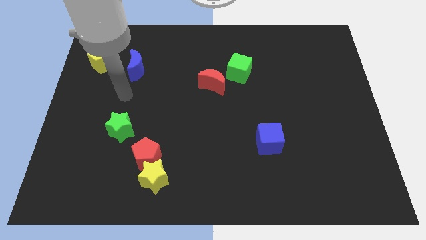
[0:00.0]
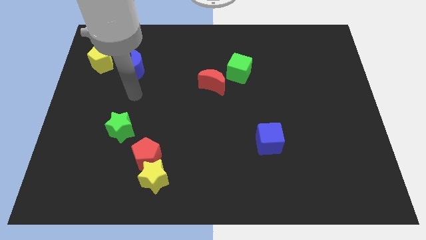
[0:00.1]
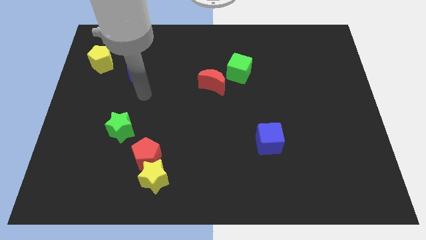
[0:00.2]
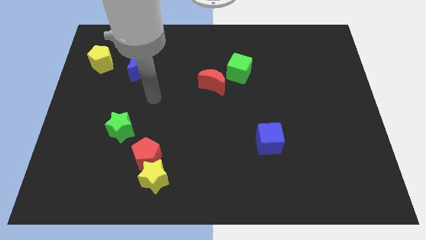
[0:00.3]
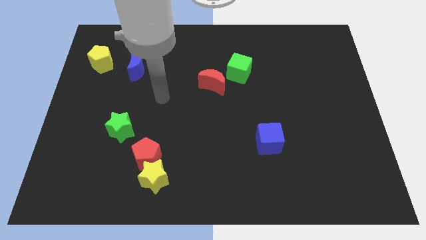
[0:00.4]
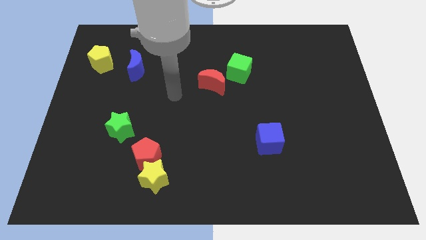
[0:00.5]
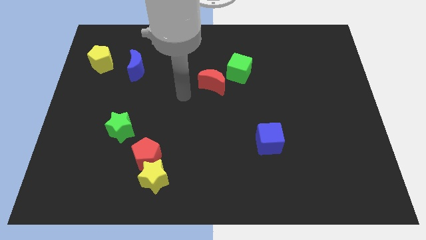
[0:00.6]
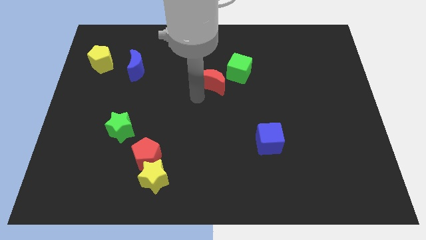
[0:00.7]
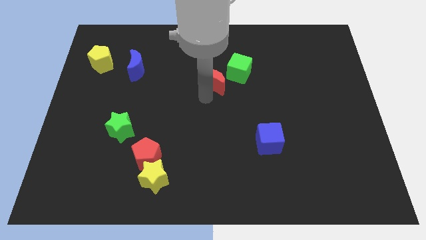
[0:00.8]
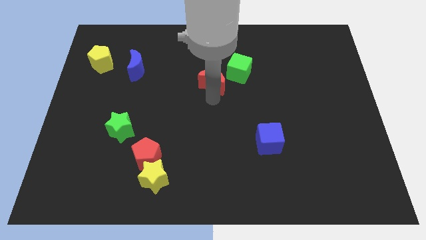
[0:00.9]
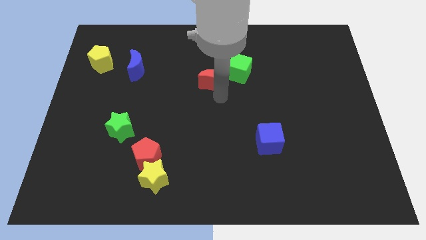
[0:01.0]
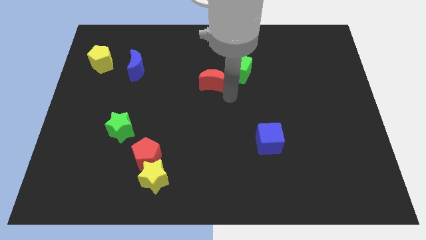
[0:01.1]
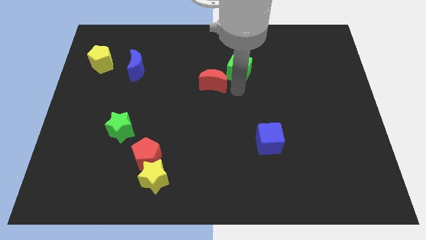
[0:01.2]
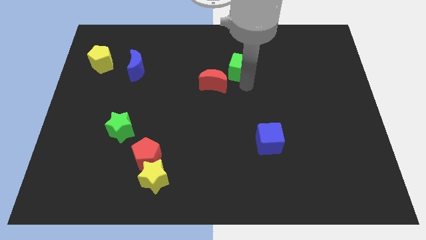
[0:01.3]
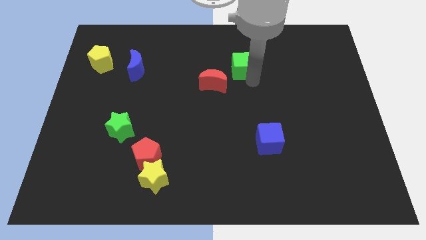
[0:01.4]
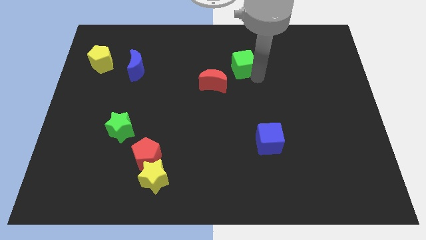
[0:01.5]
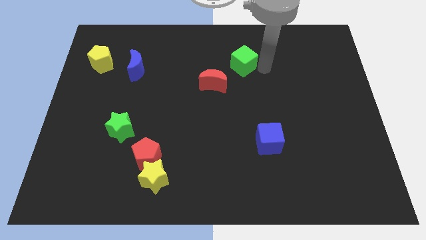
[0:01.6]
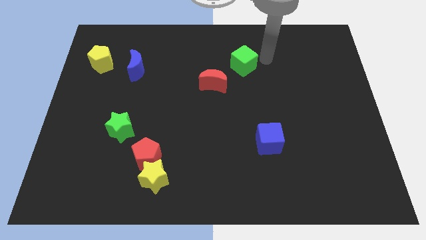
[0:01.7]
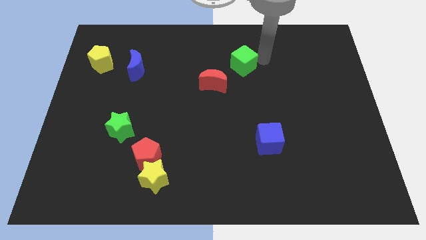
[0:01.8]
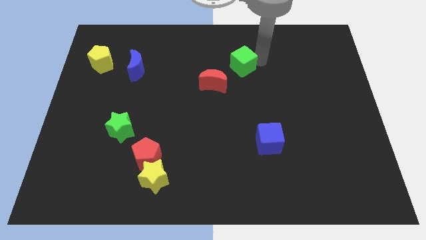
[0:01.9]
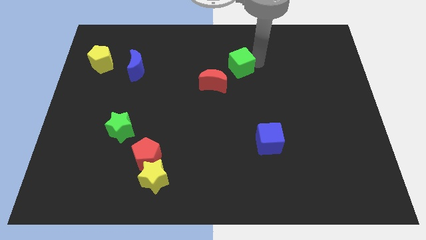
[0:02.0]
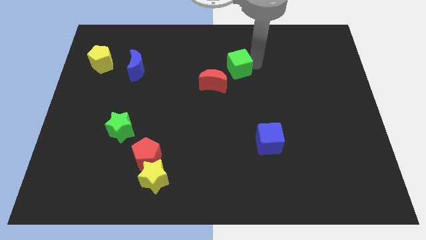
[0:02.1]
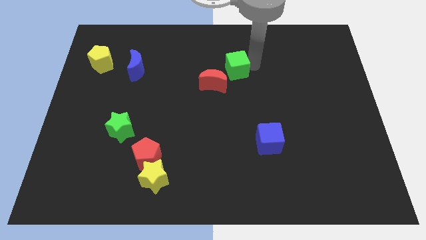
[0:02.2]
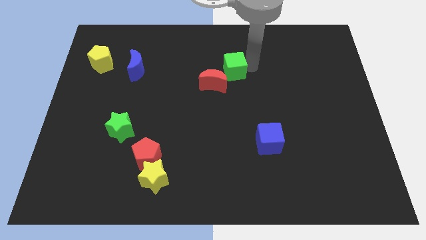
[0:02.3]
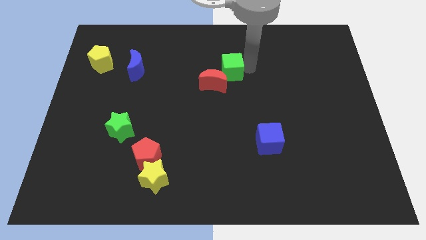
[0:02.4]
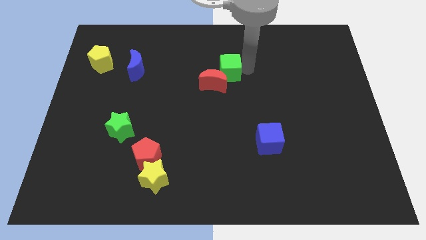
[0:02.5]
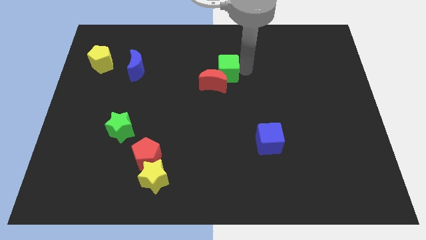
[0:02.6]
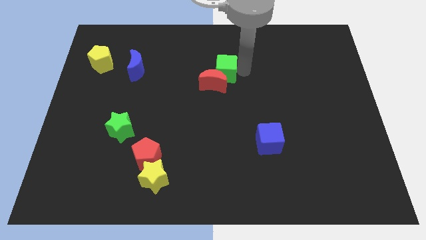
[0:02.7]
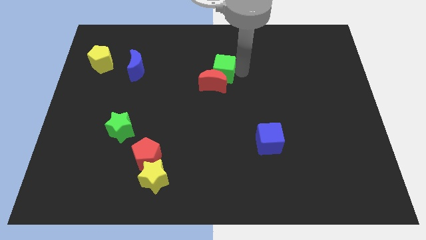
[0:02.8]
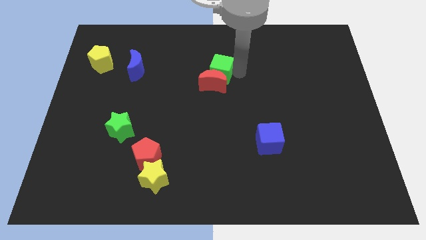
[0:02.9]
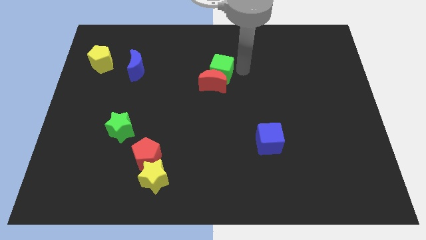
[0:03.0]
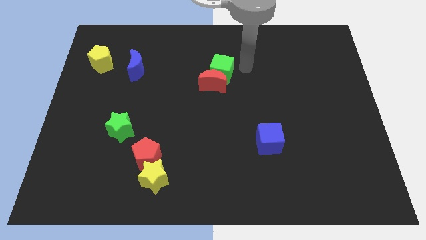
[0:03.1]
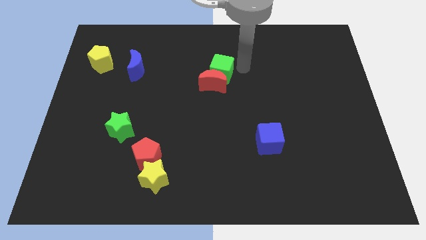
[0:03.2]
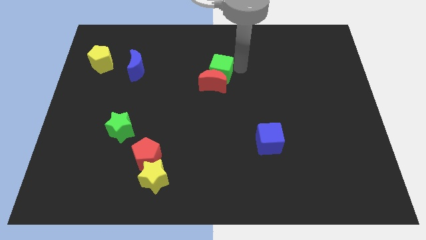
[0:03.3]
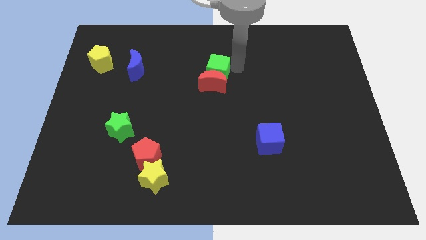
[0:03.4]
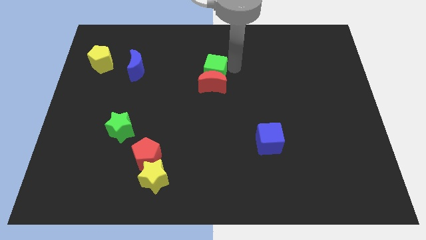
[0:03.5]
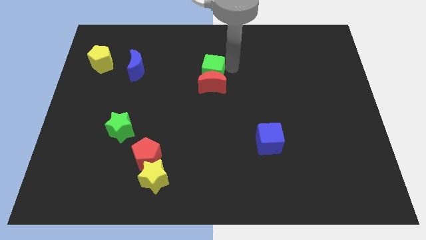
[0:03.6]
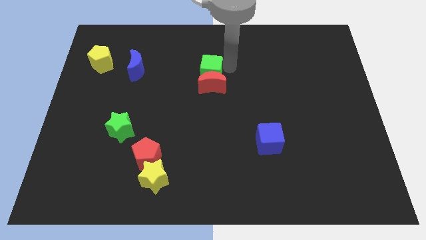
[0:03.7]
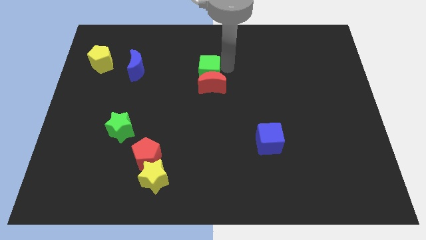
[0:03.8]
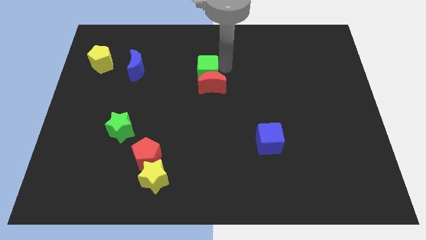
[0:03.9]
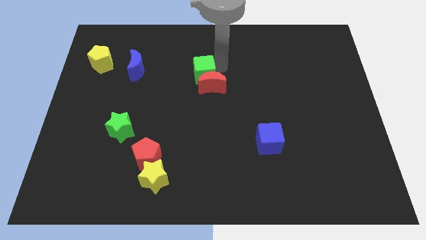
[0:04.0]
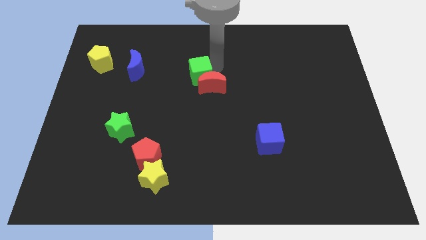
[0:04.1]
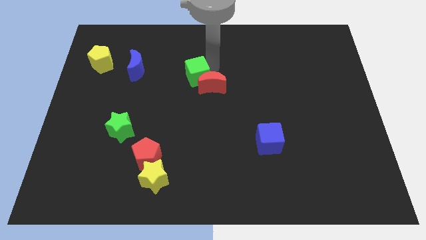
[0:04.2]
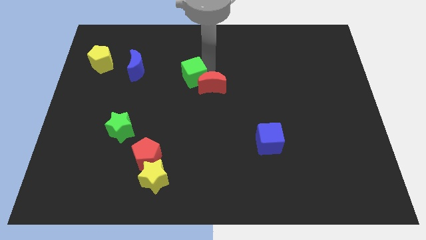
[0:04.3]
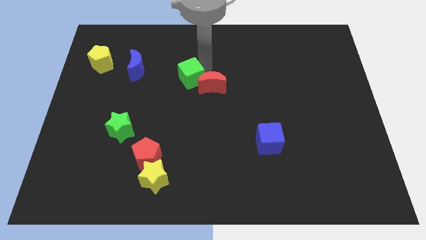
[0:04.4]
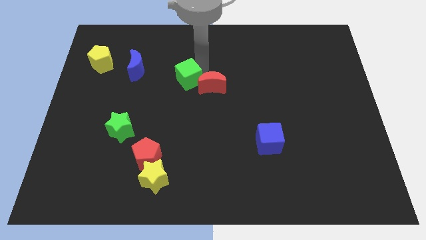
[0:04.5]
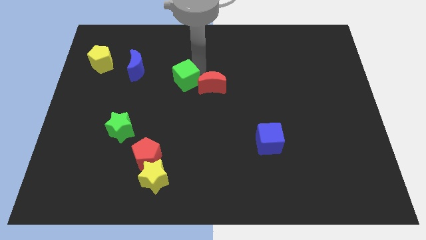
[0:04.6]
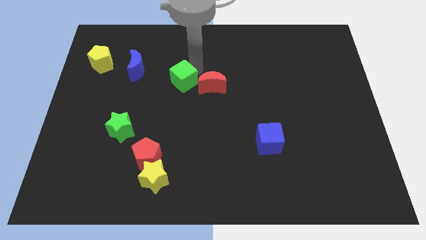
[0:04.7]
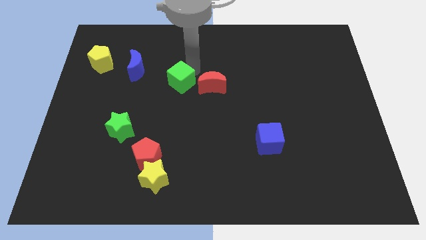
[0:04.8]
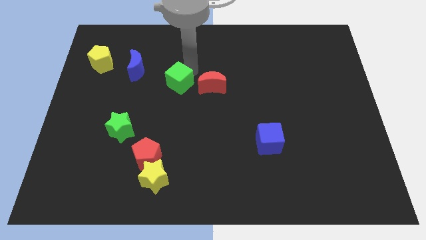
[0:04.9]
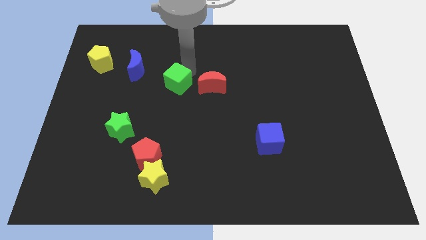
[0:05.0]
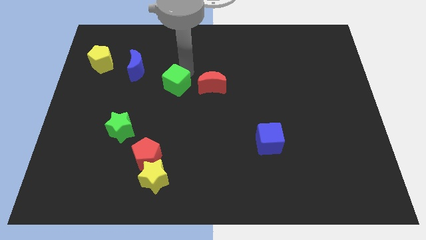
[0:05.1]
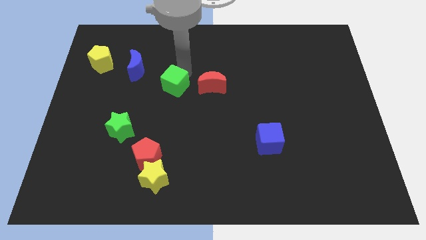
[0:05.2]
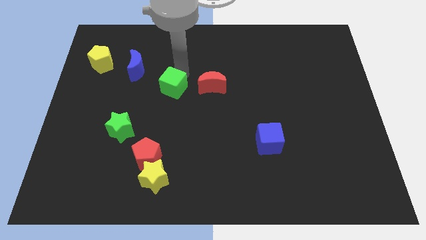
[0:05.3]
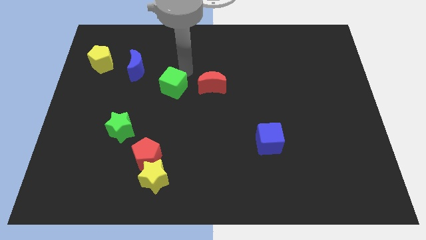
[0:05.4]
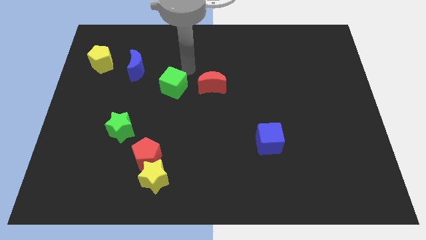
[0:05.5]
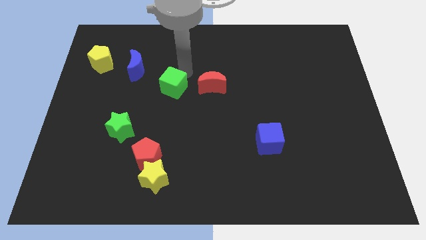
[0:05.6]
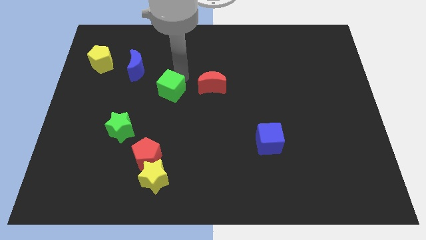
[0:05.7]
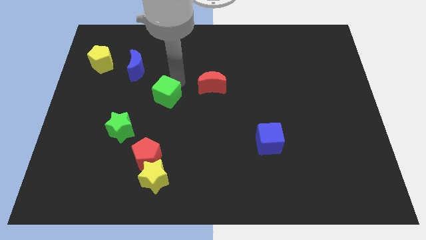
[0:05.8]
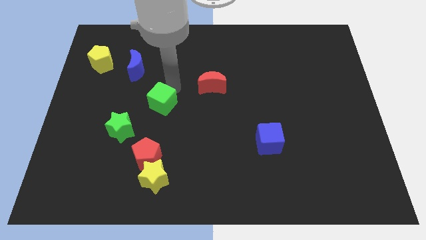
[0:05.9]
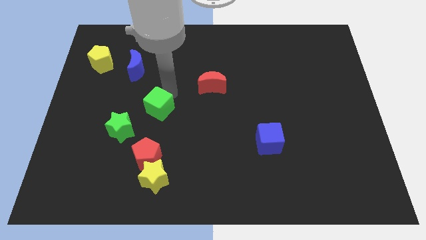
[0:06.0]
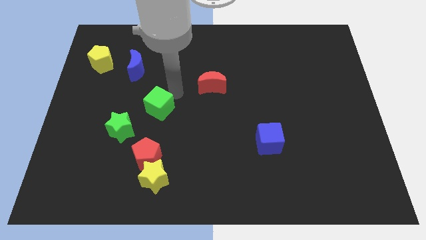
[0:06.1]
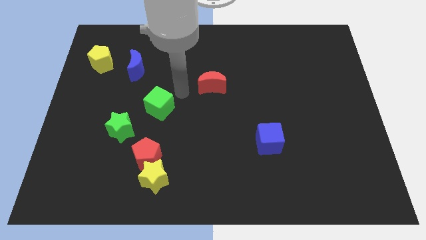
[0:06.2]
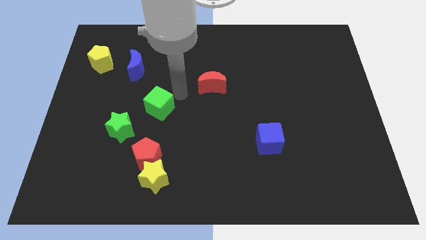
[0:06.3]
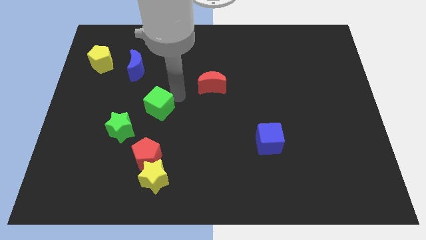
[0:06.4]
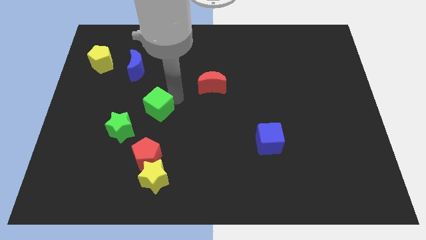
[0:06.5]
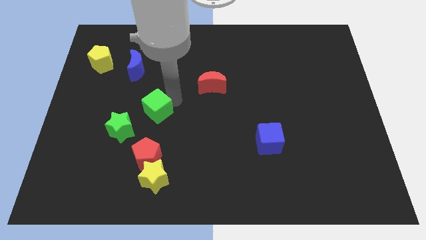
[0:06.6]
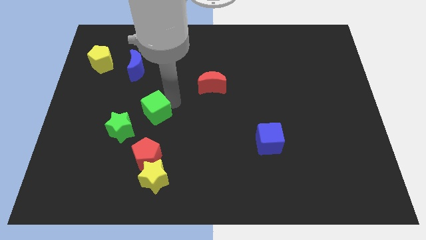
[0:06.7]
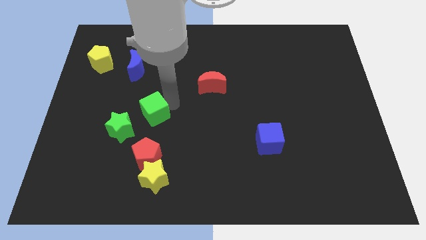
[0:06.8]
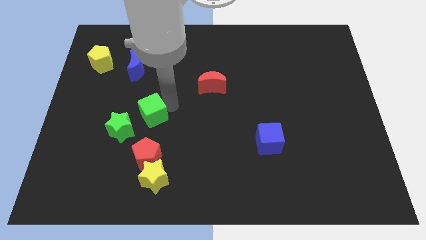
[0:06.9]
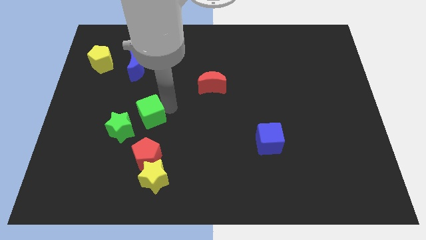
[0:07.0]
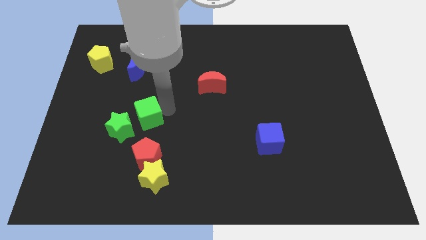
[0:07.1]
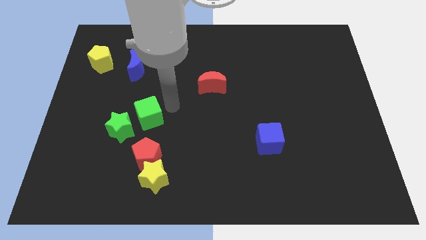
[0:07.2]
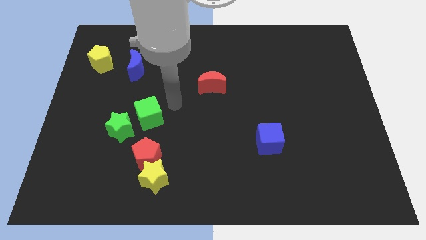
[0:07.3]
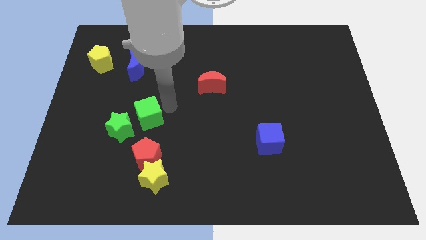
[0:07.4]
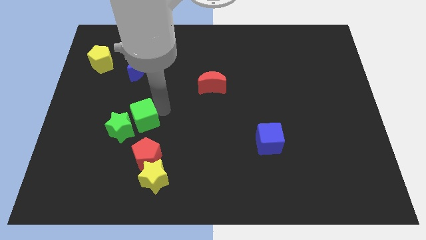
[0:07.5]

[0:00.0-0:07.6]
put the green cube towards the green star

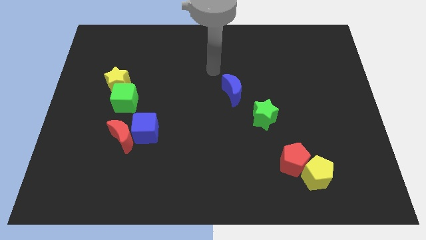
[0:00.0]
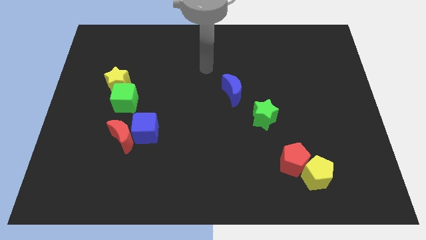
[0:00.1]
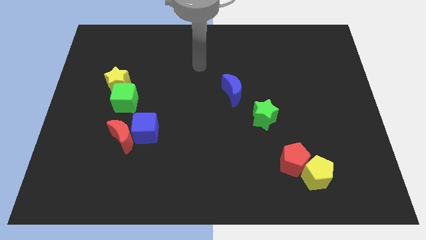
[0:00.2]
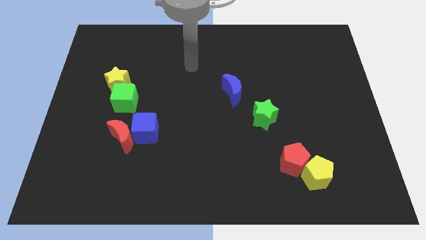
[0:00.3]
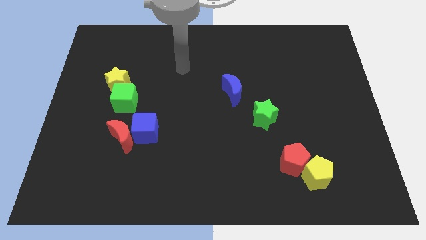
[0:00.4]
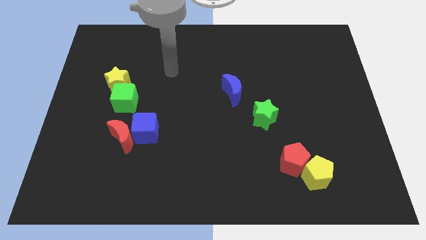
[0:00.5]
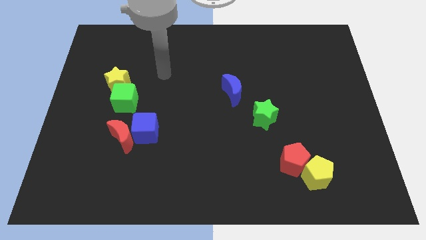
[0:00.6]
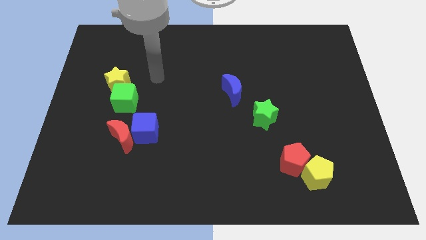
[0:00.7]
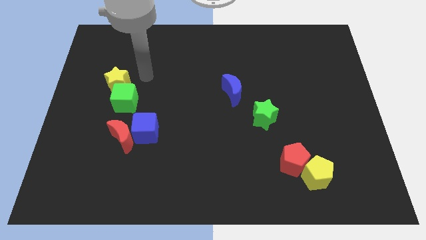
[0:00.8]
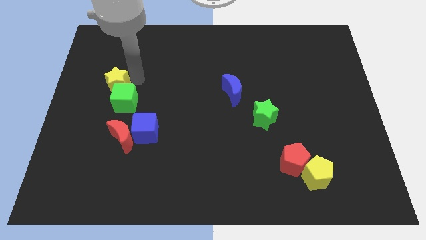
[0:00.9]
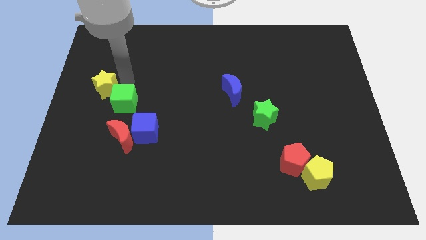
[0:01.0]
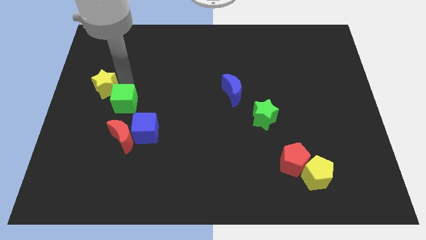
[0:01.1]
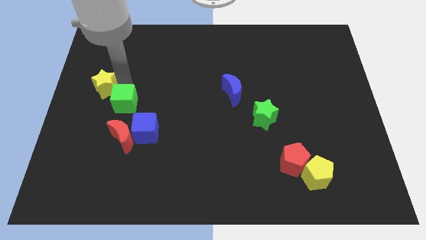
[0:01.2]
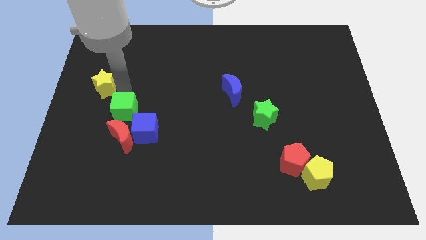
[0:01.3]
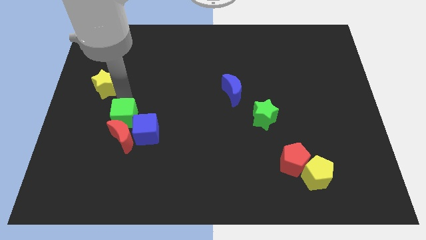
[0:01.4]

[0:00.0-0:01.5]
move the green cube close to the red moon
